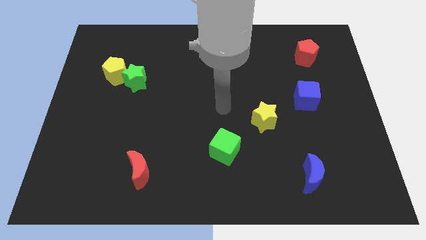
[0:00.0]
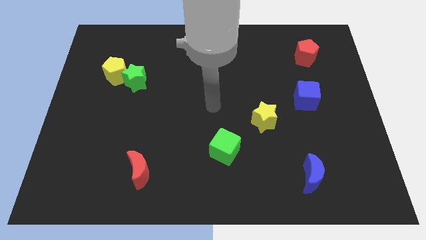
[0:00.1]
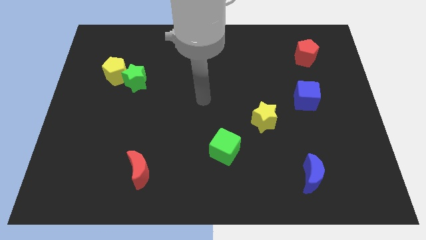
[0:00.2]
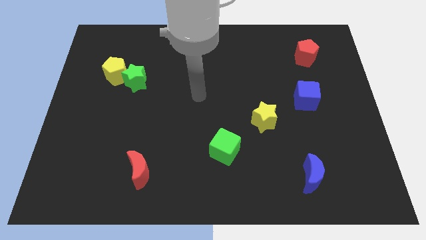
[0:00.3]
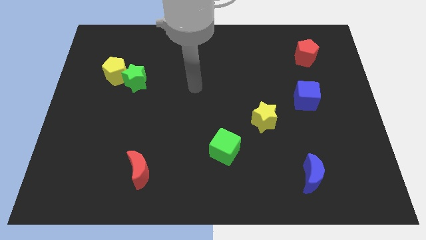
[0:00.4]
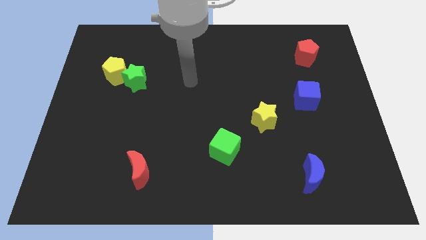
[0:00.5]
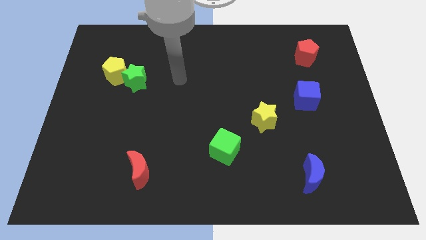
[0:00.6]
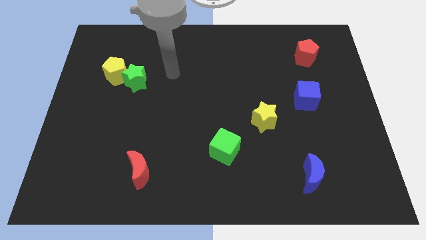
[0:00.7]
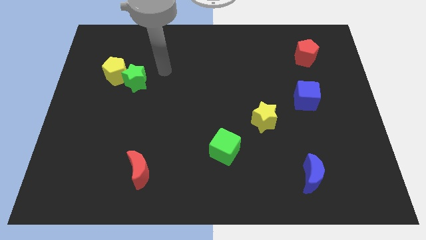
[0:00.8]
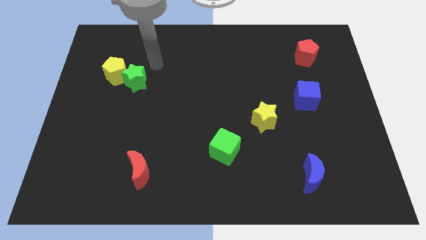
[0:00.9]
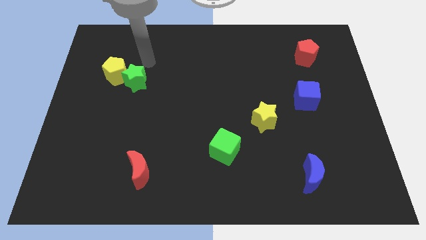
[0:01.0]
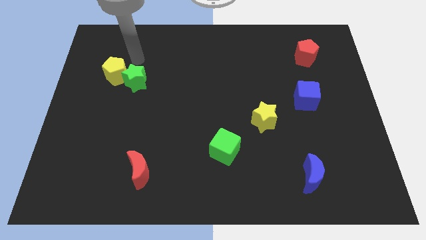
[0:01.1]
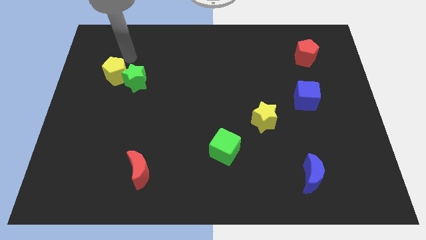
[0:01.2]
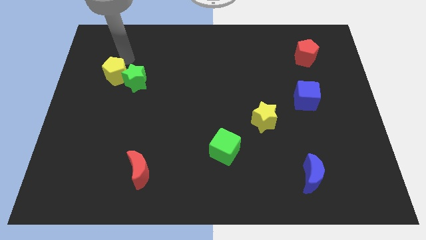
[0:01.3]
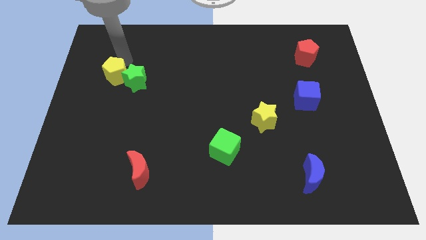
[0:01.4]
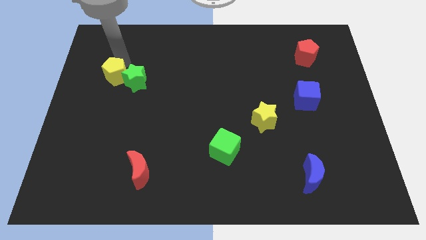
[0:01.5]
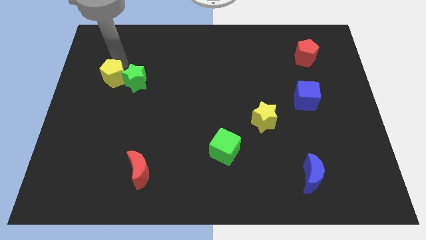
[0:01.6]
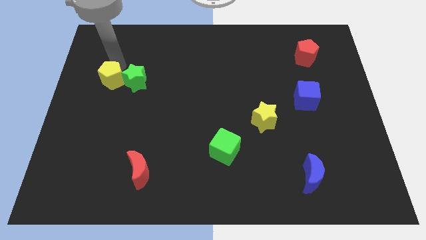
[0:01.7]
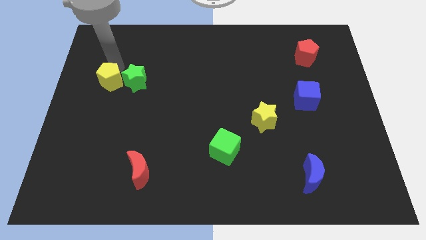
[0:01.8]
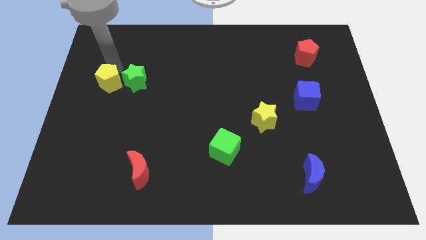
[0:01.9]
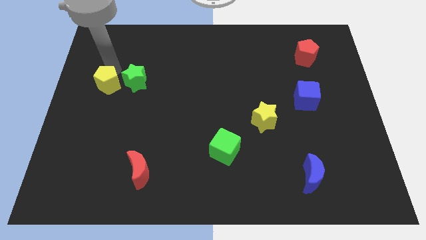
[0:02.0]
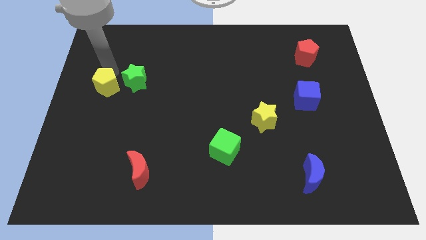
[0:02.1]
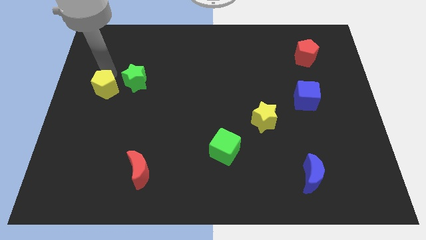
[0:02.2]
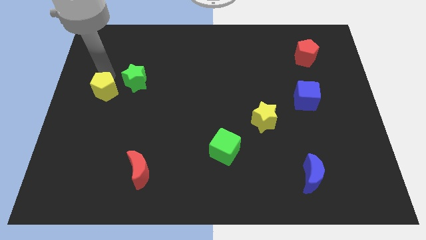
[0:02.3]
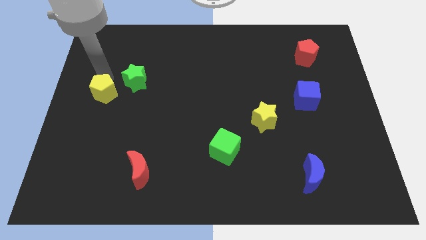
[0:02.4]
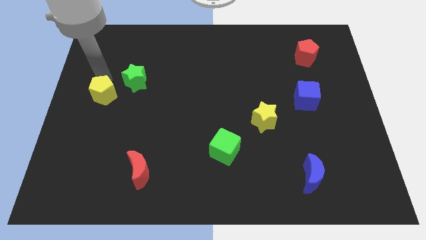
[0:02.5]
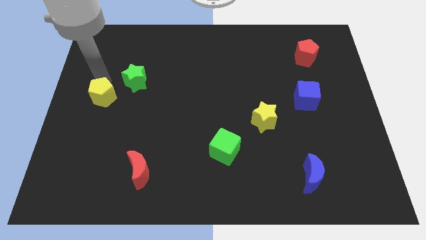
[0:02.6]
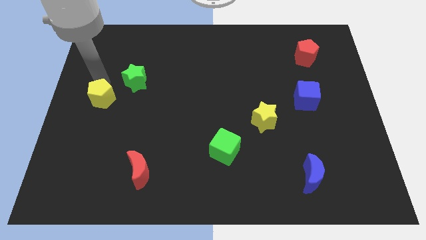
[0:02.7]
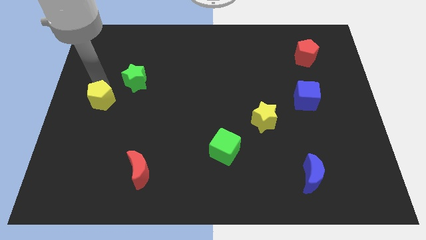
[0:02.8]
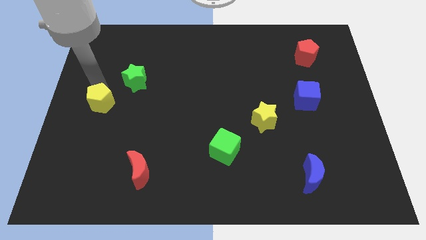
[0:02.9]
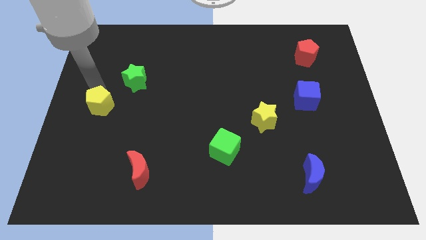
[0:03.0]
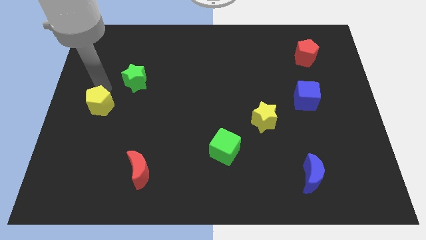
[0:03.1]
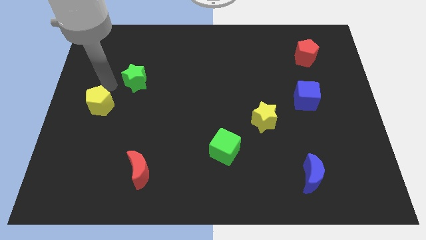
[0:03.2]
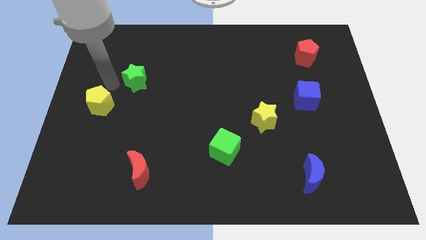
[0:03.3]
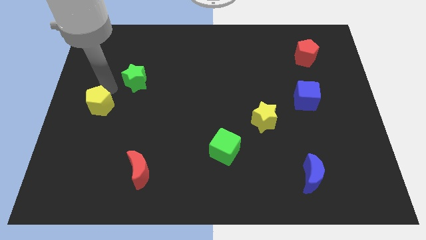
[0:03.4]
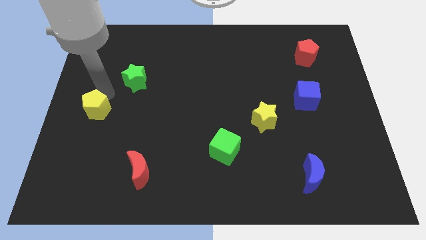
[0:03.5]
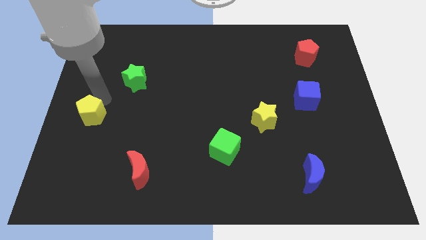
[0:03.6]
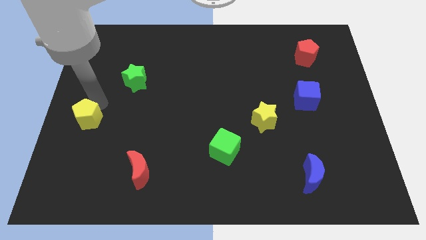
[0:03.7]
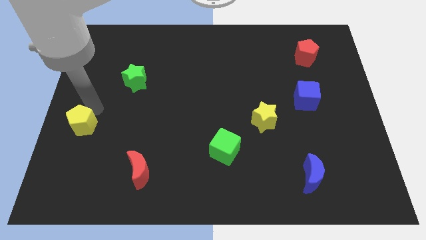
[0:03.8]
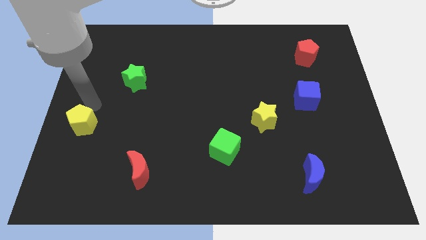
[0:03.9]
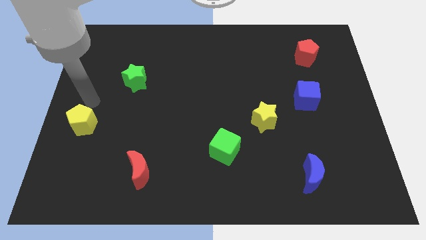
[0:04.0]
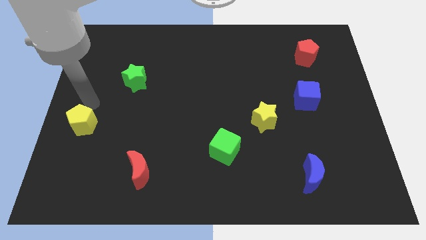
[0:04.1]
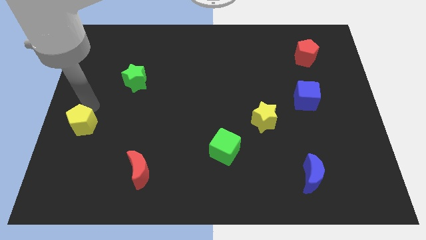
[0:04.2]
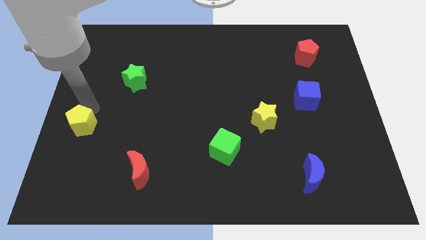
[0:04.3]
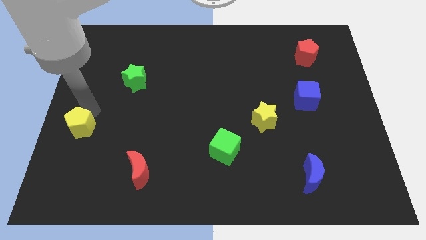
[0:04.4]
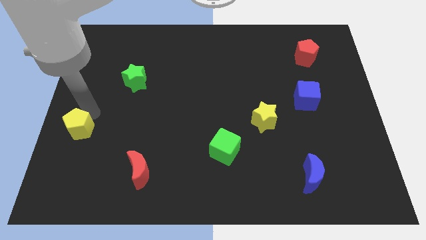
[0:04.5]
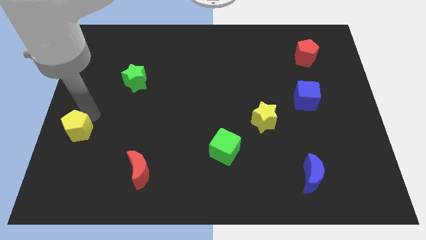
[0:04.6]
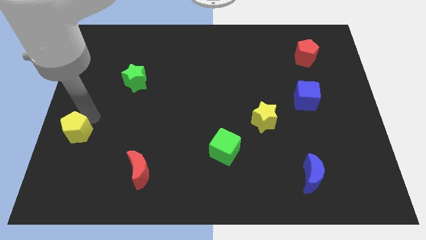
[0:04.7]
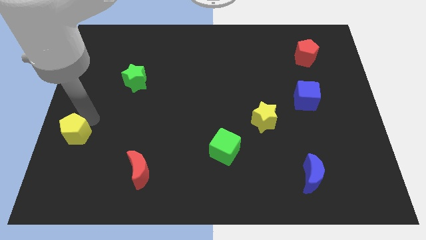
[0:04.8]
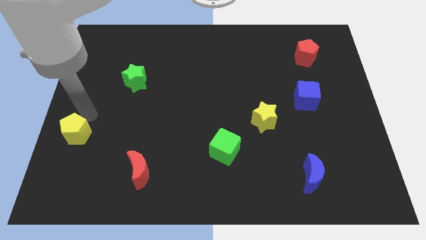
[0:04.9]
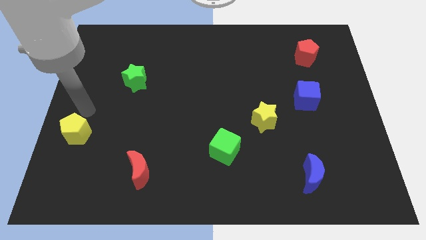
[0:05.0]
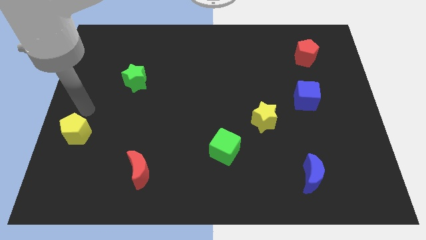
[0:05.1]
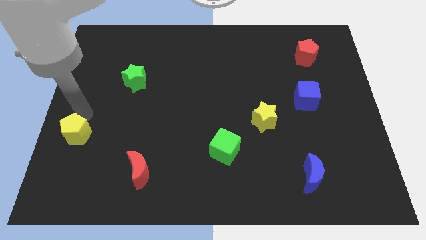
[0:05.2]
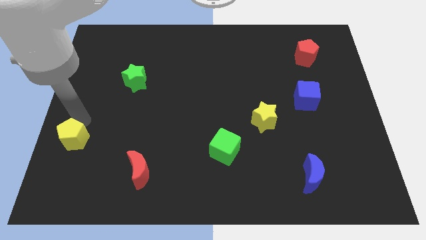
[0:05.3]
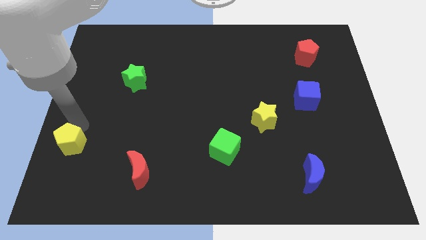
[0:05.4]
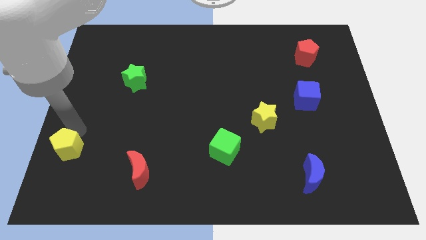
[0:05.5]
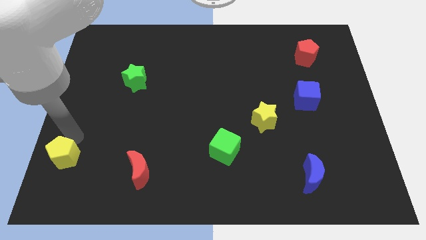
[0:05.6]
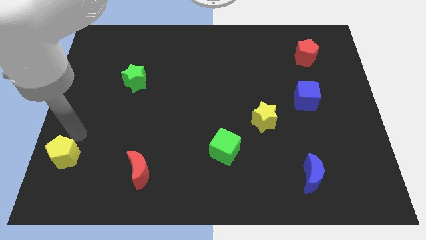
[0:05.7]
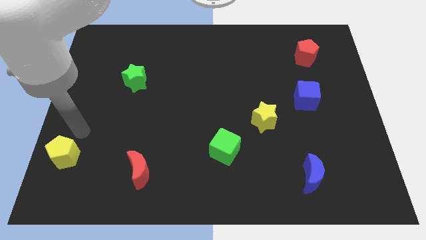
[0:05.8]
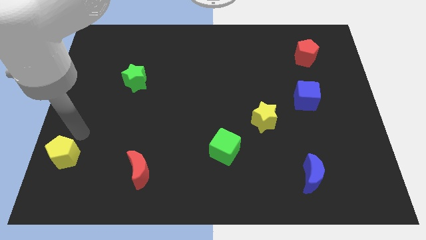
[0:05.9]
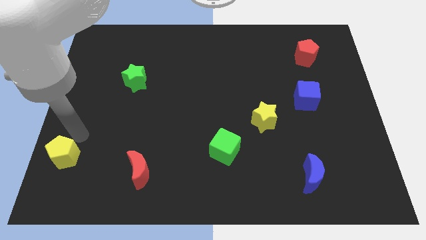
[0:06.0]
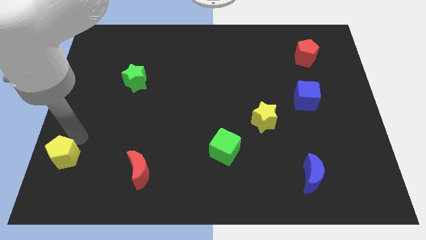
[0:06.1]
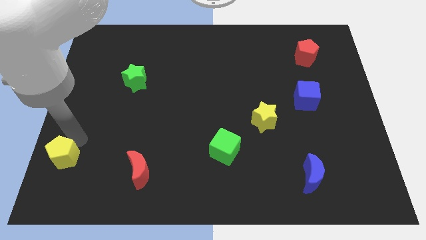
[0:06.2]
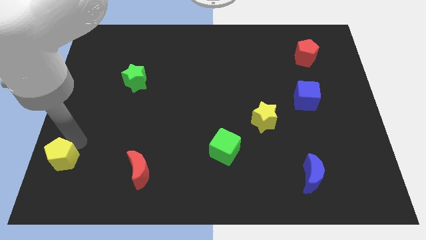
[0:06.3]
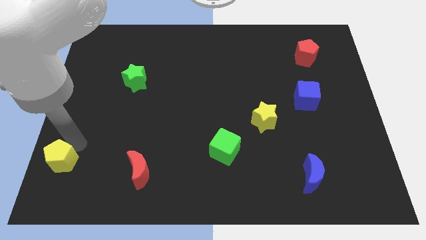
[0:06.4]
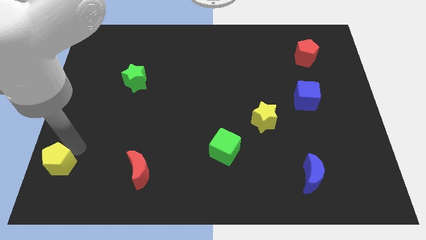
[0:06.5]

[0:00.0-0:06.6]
push the yellow pentagon to the lower left corner
